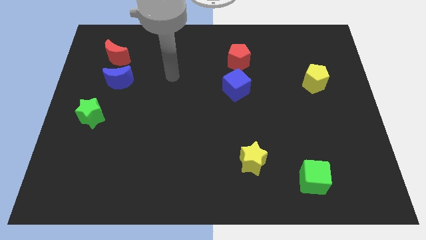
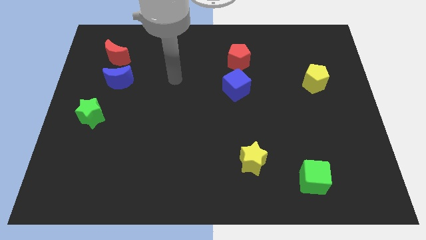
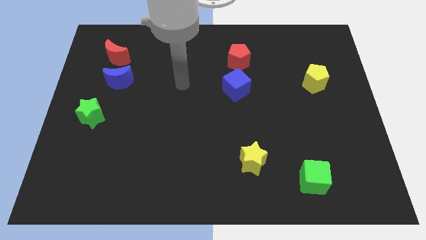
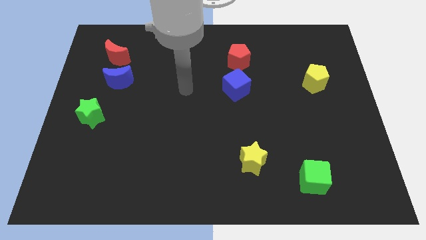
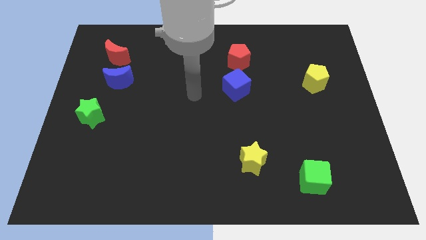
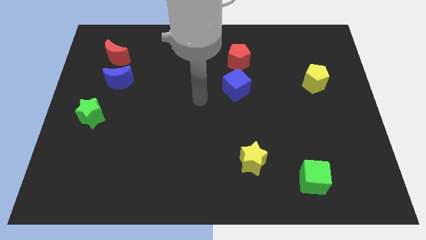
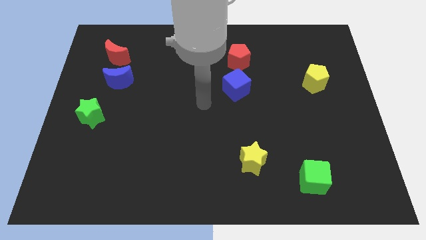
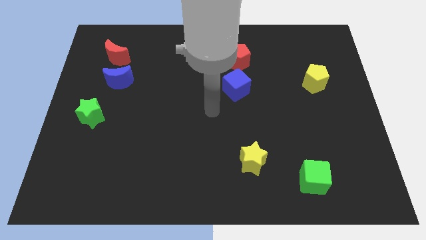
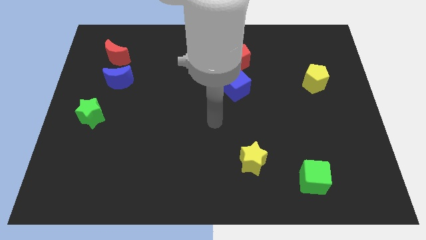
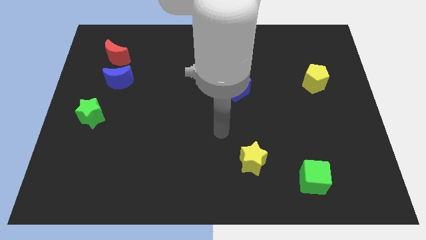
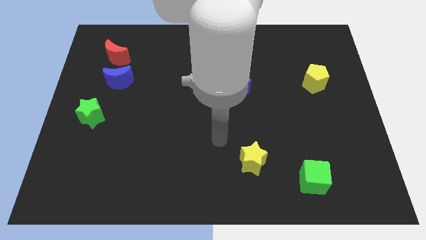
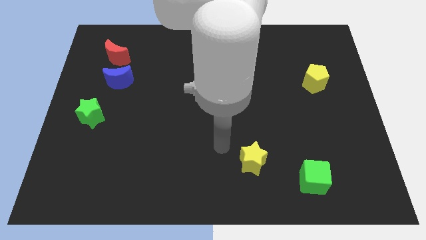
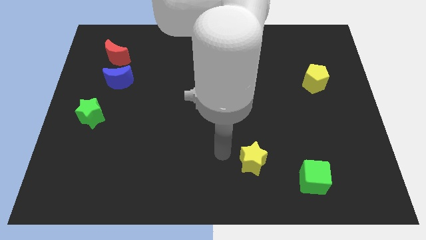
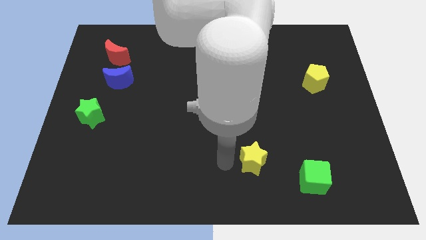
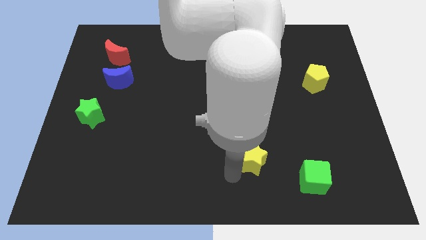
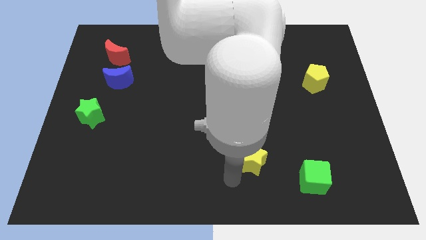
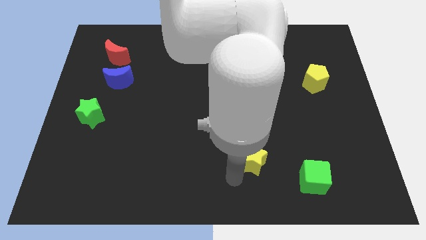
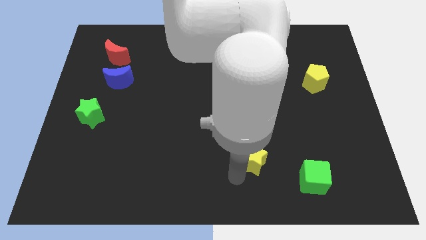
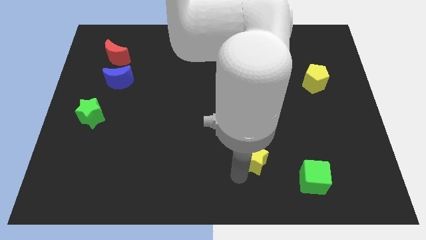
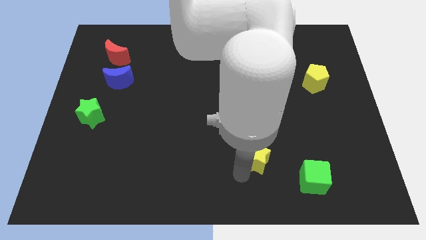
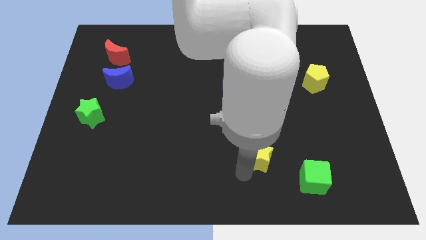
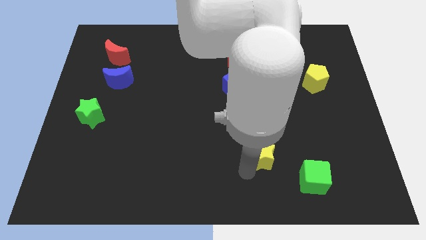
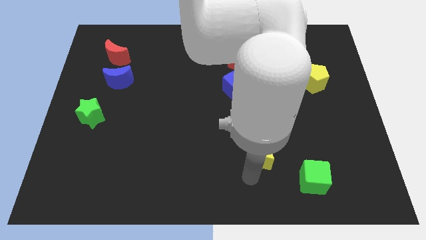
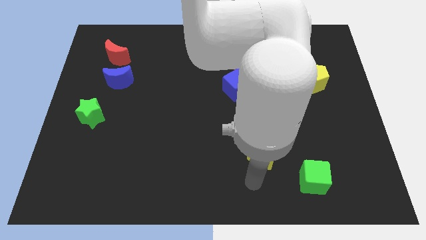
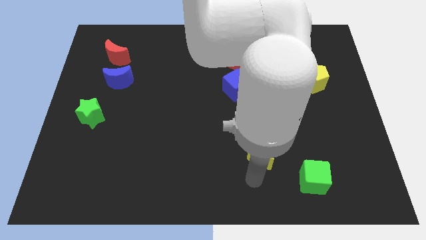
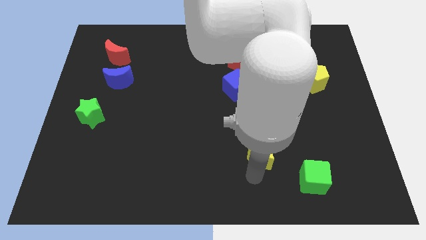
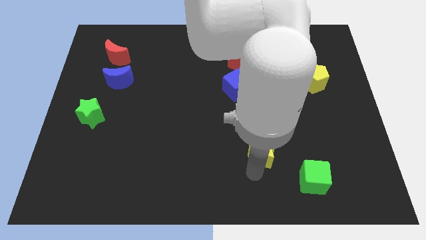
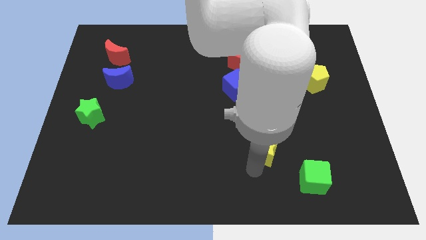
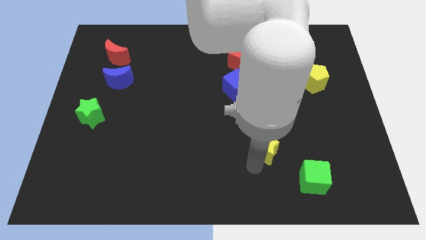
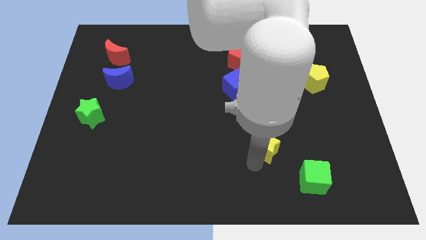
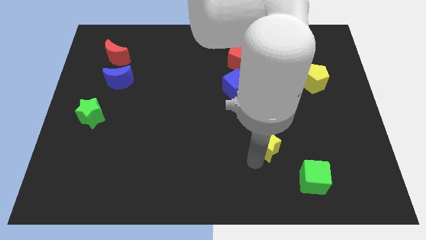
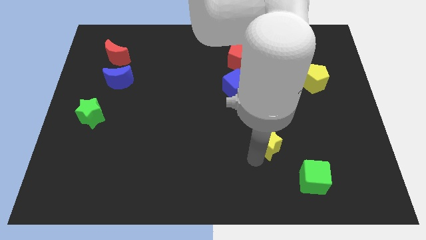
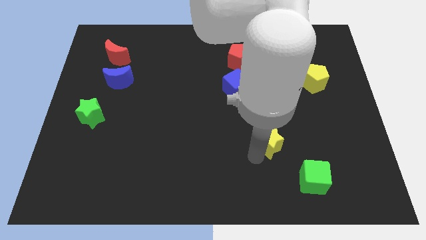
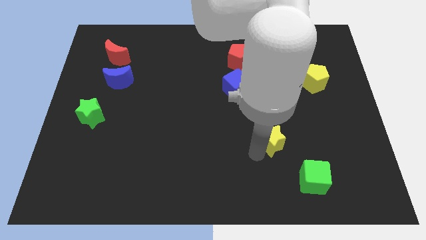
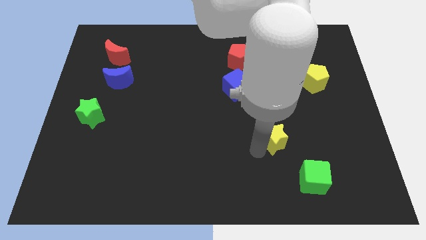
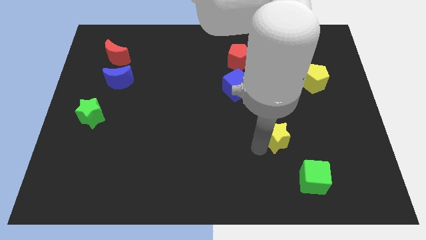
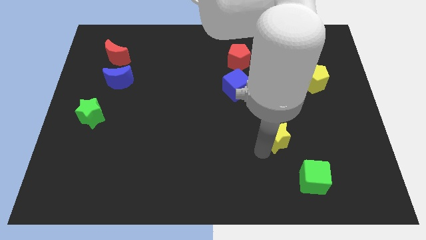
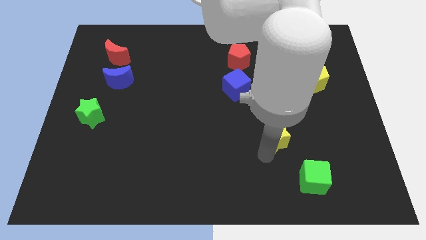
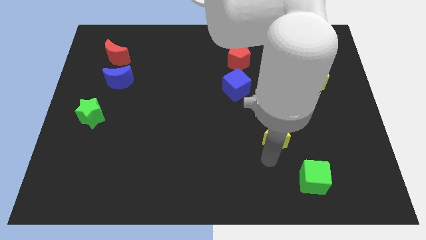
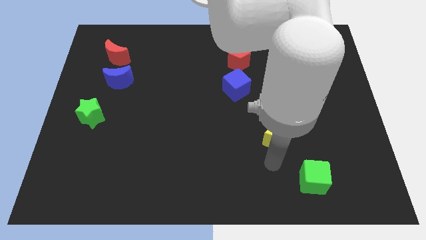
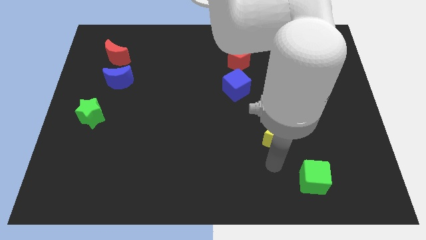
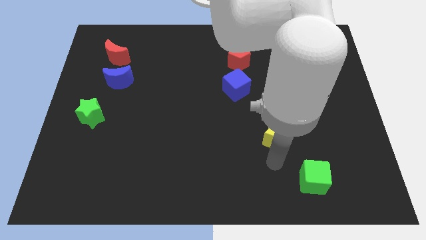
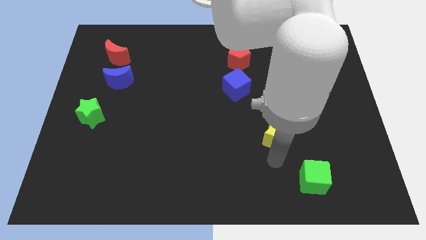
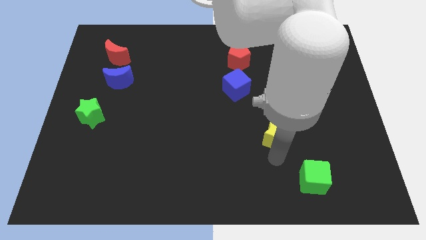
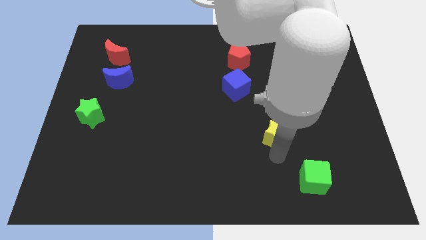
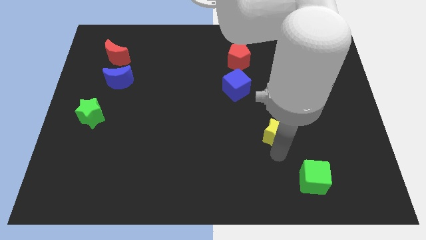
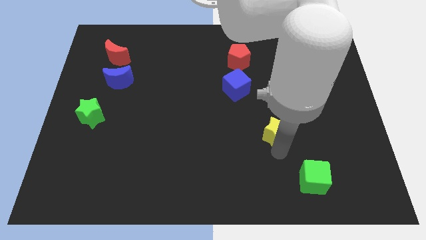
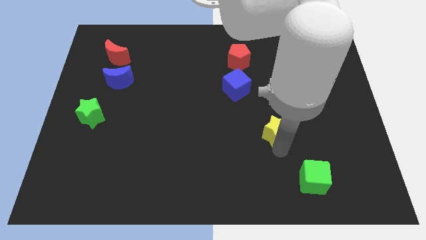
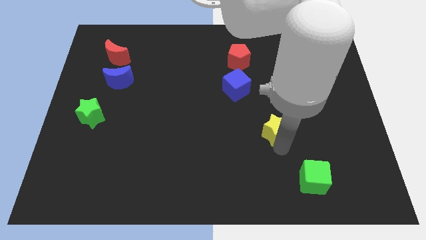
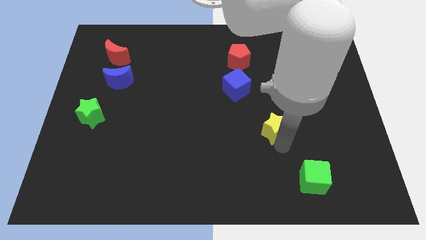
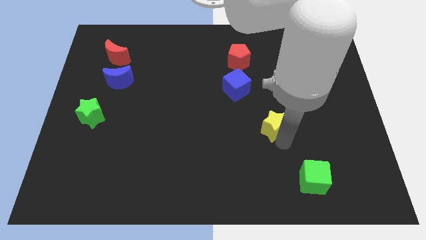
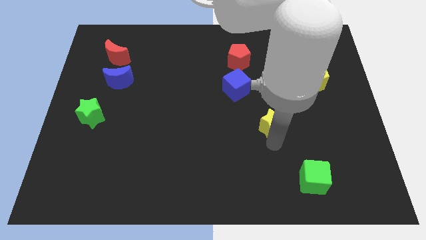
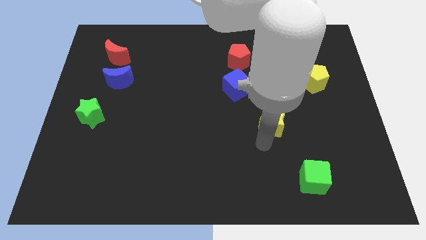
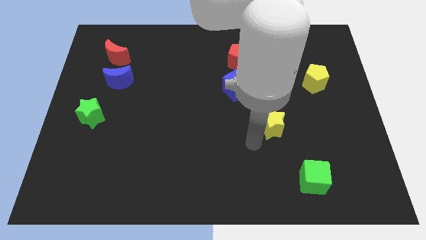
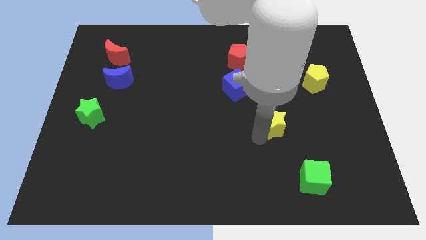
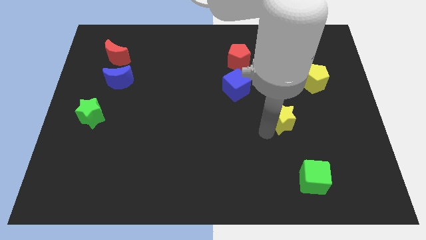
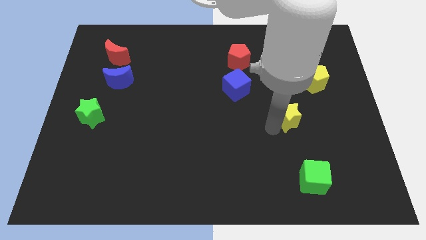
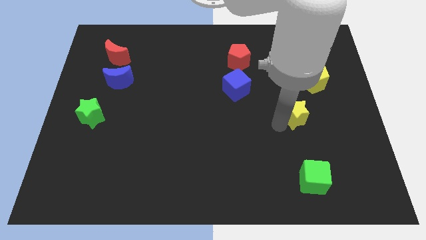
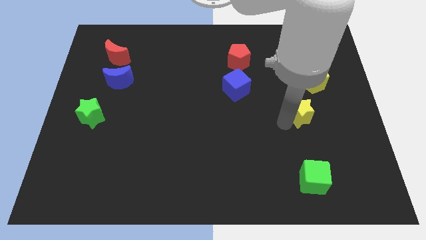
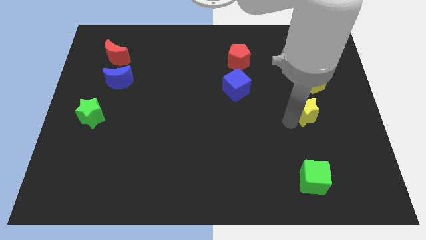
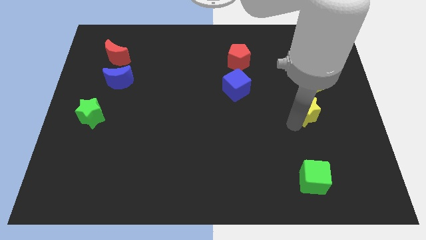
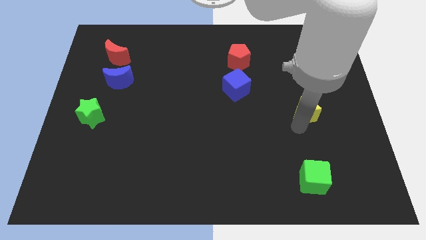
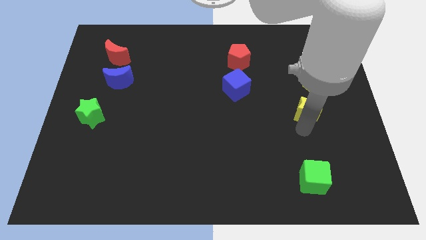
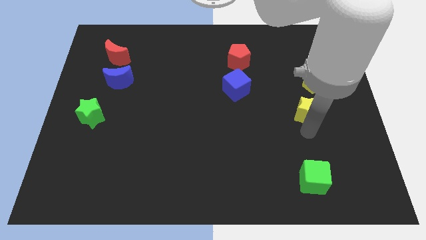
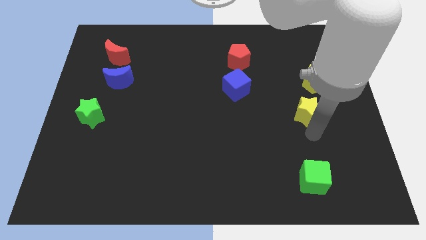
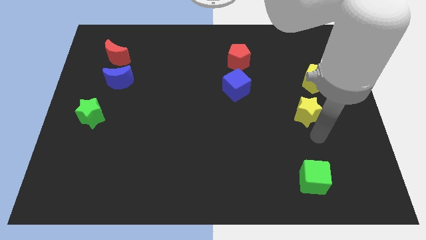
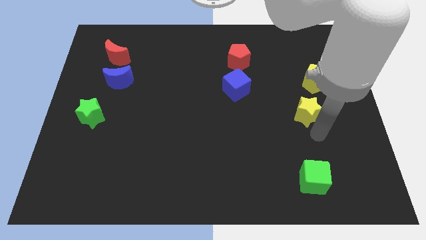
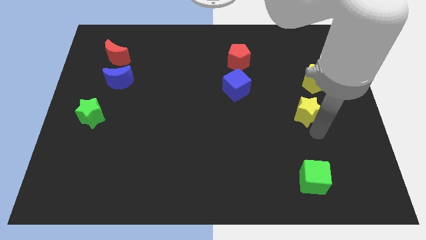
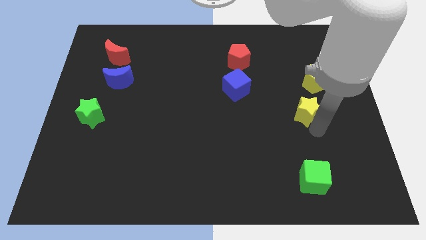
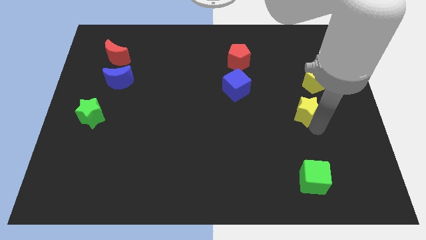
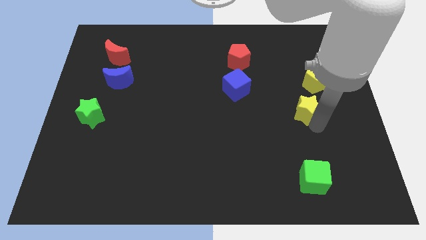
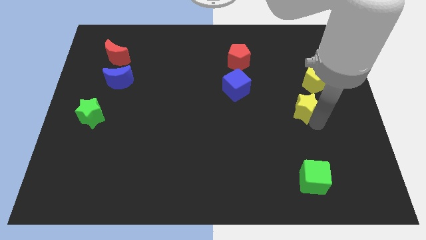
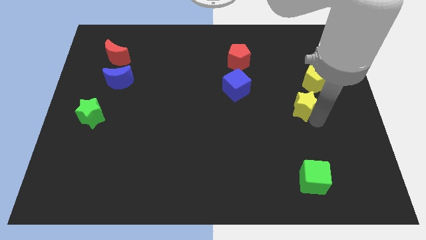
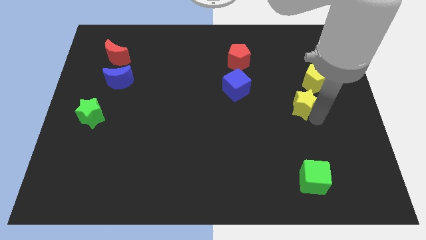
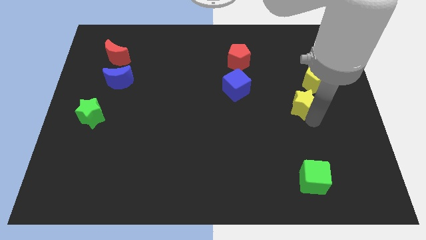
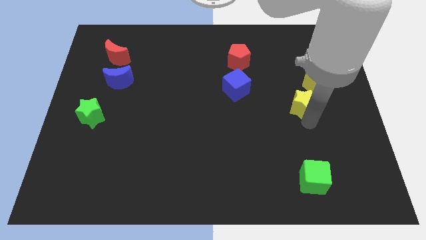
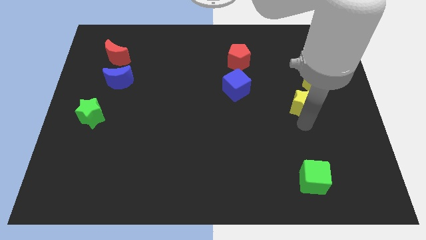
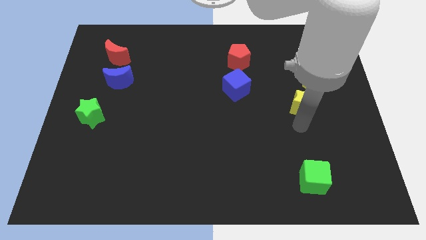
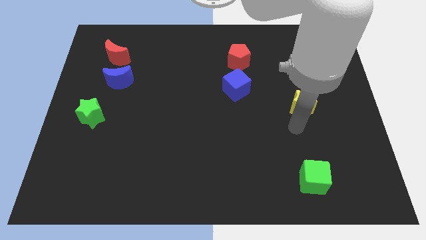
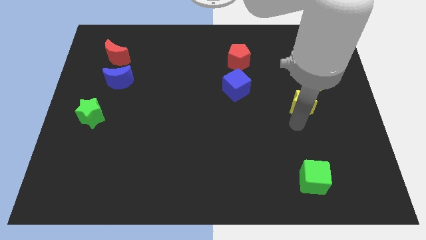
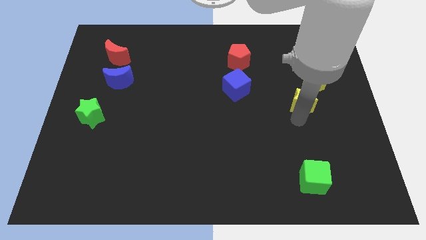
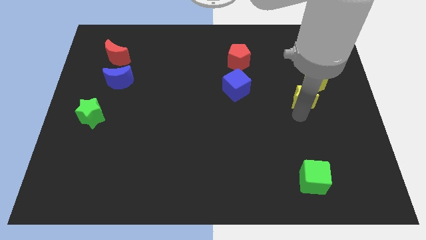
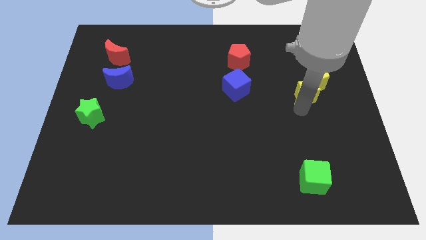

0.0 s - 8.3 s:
move the yellow star towards the yellow pentagon
